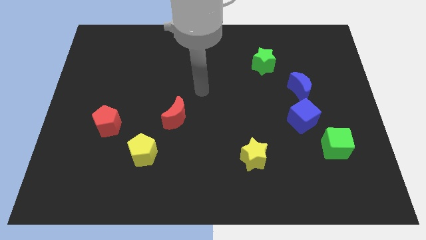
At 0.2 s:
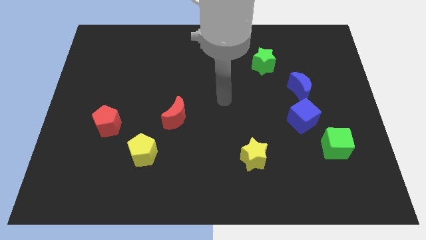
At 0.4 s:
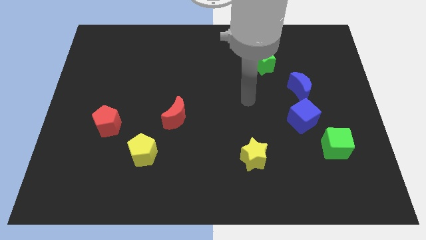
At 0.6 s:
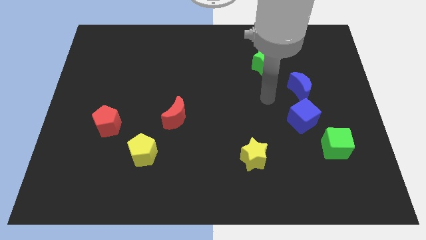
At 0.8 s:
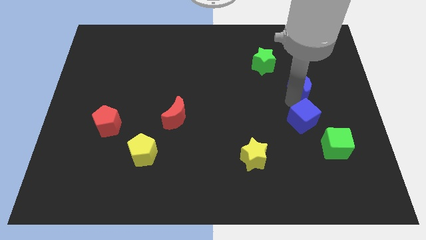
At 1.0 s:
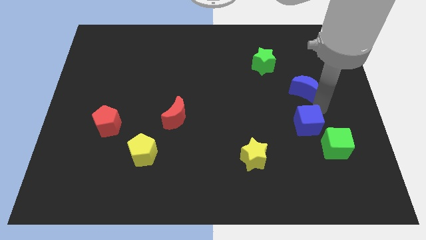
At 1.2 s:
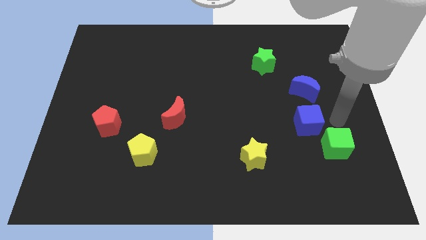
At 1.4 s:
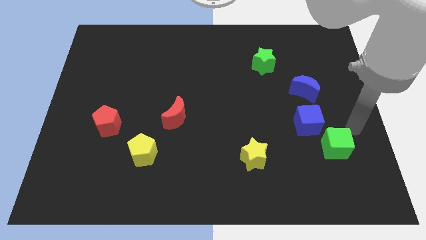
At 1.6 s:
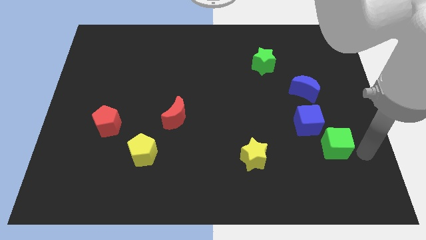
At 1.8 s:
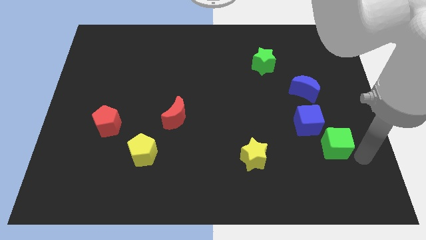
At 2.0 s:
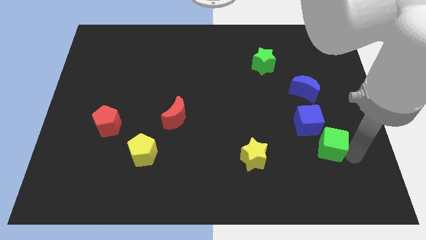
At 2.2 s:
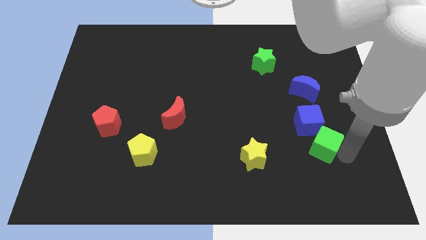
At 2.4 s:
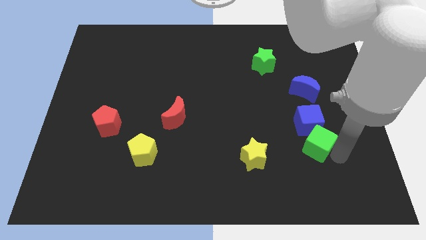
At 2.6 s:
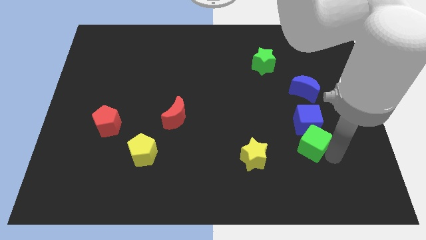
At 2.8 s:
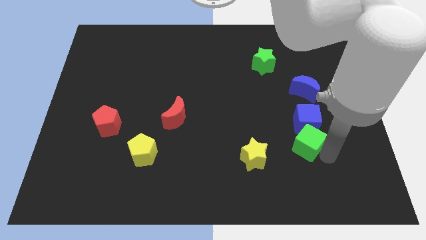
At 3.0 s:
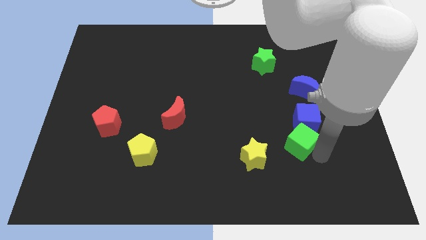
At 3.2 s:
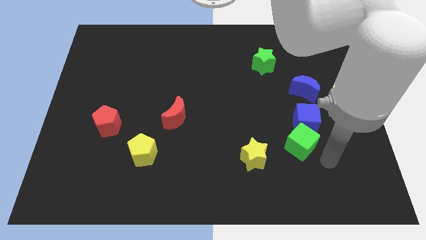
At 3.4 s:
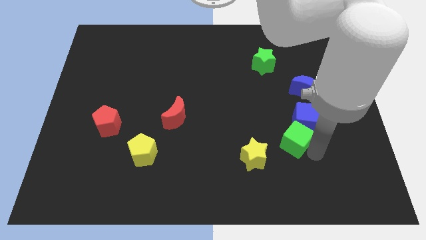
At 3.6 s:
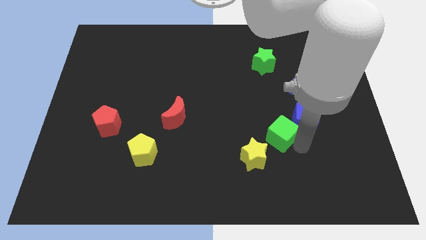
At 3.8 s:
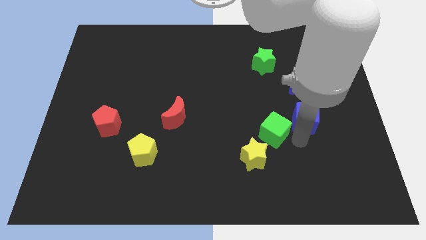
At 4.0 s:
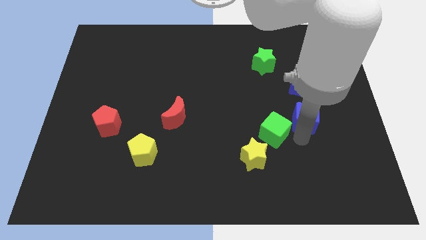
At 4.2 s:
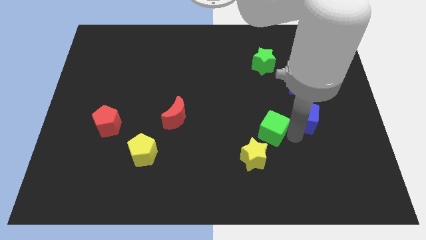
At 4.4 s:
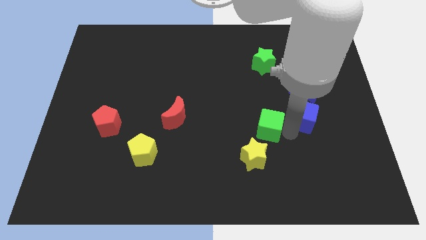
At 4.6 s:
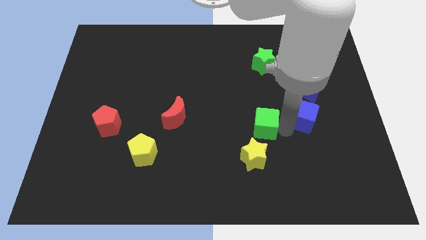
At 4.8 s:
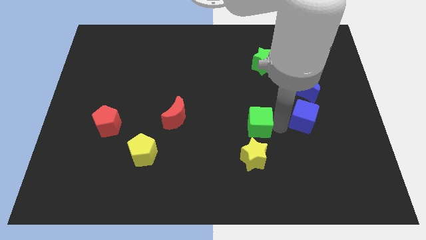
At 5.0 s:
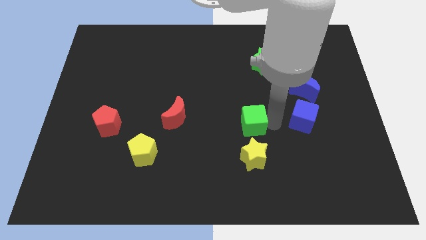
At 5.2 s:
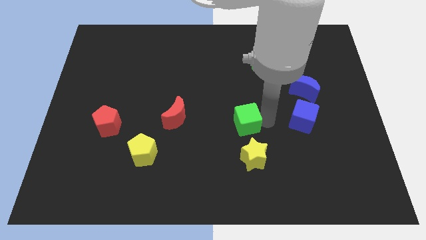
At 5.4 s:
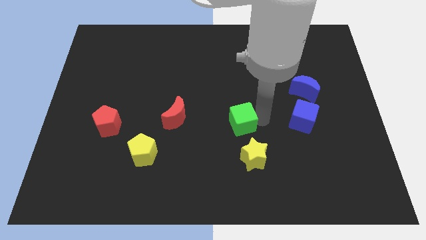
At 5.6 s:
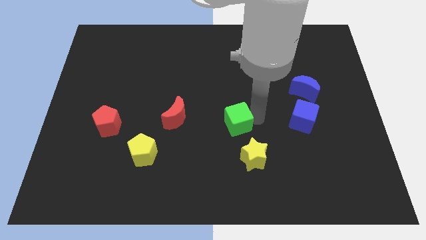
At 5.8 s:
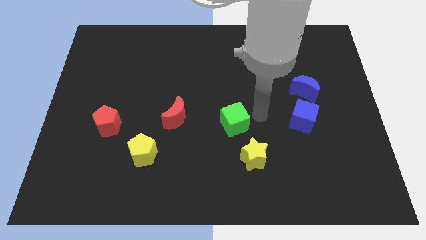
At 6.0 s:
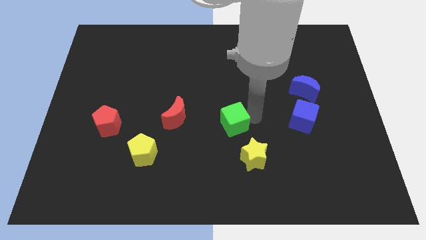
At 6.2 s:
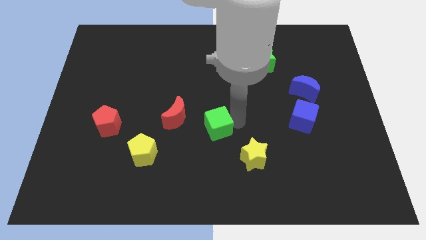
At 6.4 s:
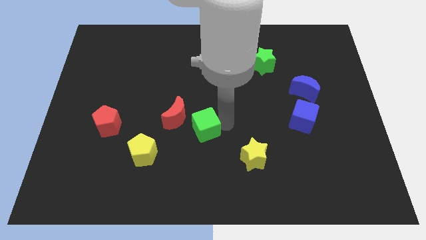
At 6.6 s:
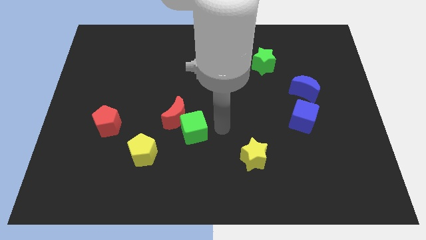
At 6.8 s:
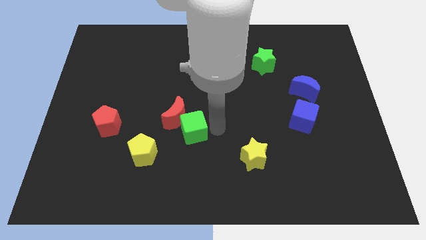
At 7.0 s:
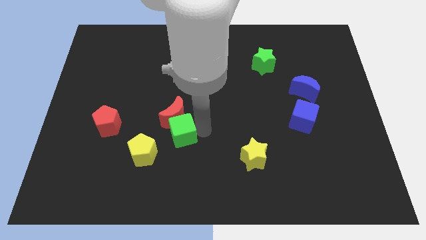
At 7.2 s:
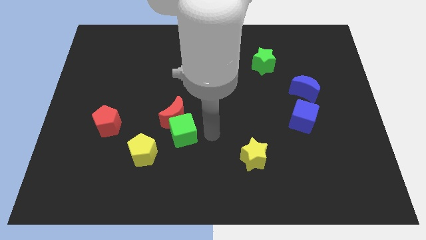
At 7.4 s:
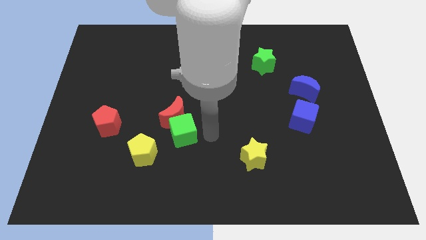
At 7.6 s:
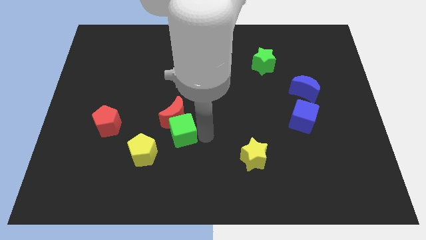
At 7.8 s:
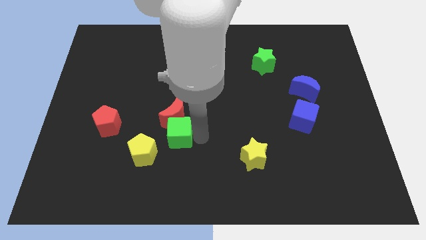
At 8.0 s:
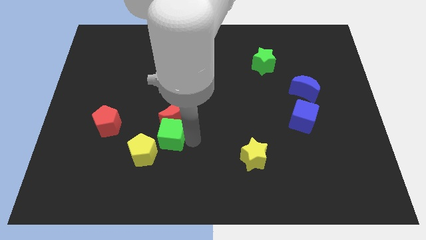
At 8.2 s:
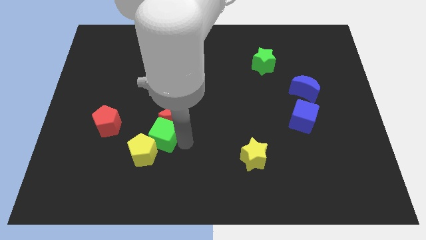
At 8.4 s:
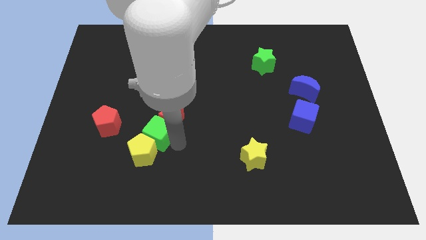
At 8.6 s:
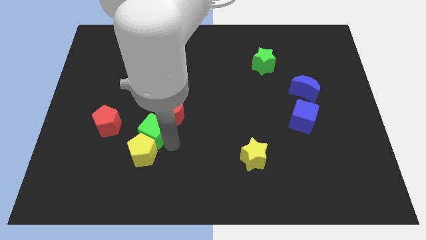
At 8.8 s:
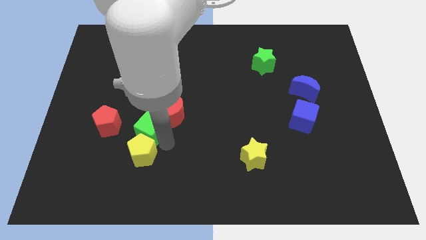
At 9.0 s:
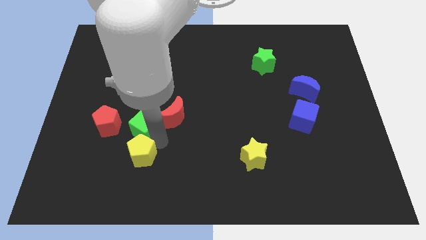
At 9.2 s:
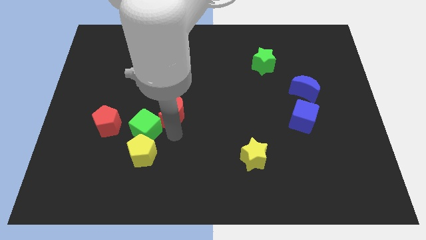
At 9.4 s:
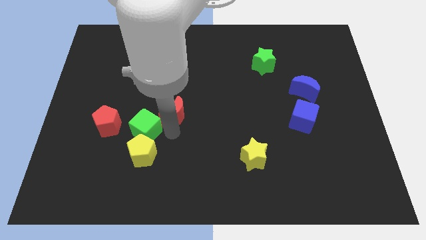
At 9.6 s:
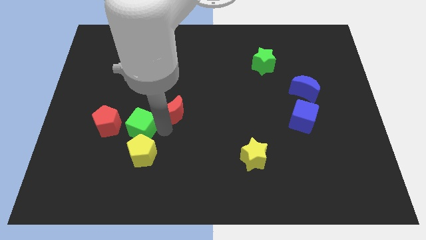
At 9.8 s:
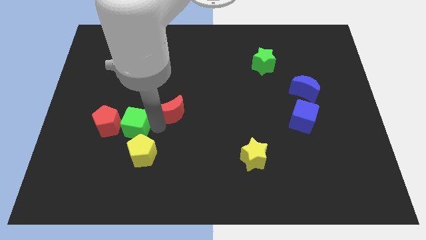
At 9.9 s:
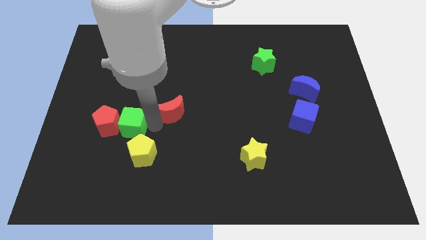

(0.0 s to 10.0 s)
slide the green cube to the red pentagon

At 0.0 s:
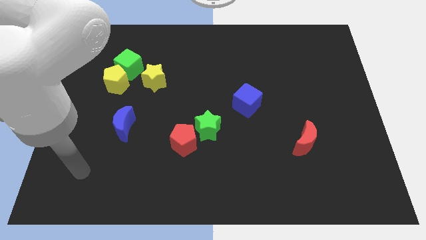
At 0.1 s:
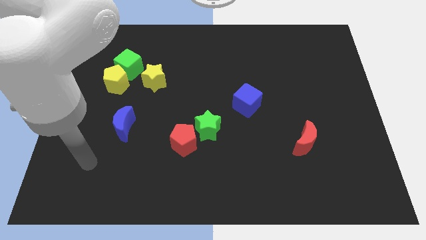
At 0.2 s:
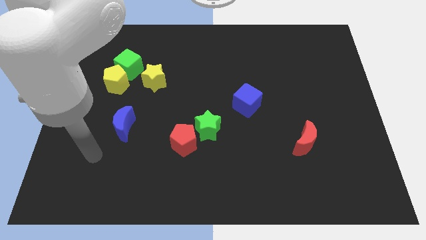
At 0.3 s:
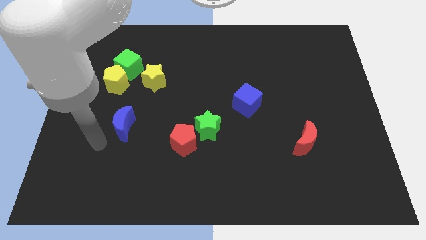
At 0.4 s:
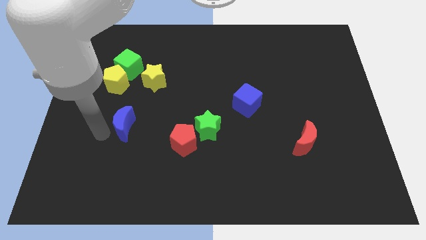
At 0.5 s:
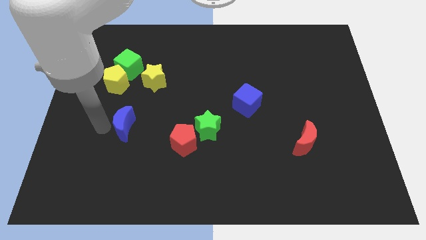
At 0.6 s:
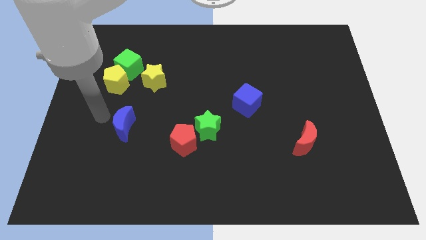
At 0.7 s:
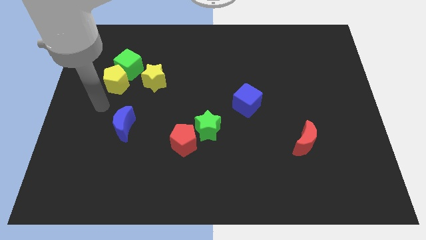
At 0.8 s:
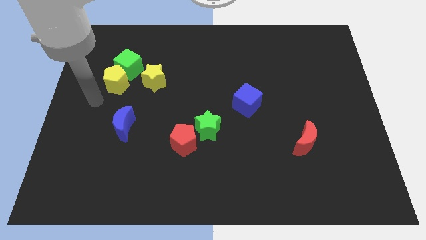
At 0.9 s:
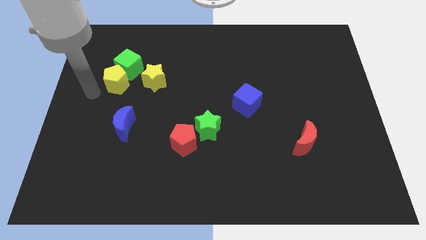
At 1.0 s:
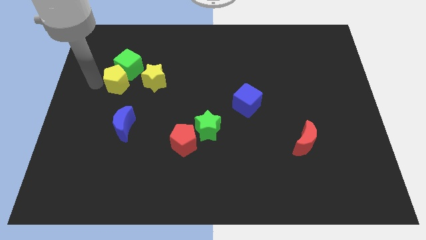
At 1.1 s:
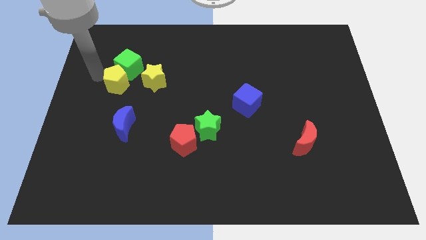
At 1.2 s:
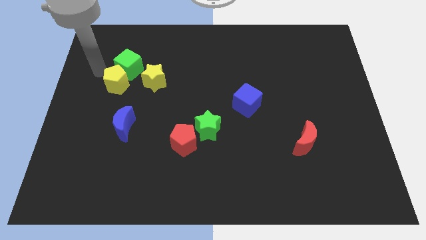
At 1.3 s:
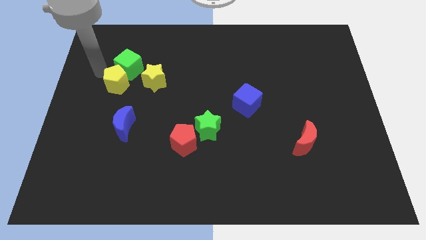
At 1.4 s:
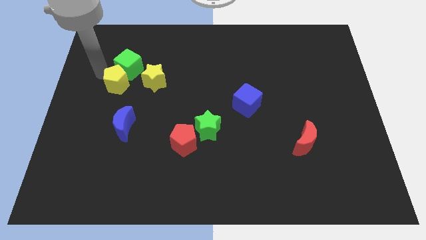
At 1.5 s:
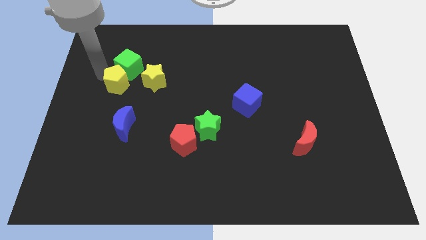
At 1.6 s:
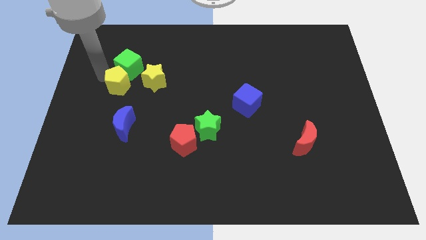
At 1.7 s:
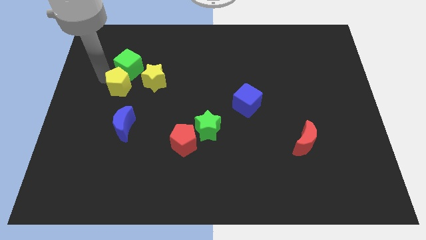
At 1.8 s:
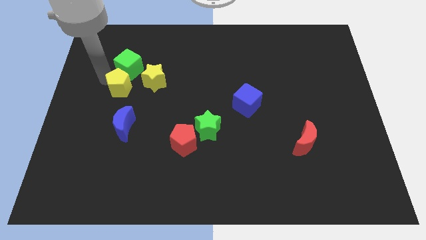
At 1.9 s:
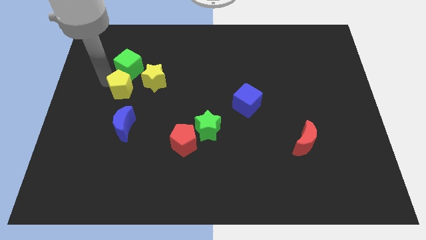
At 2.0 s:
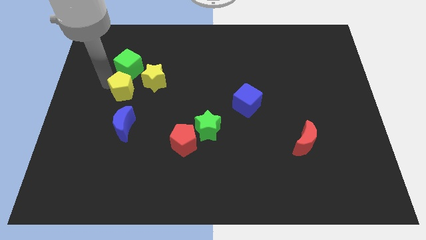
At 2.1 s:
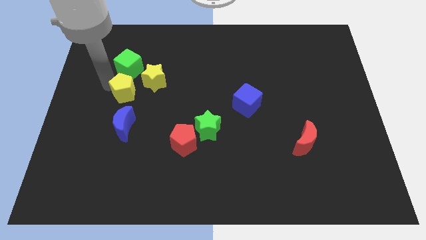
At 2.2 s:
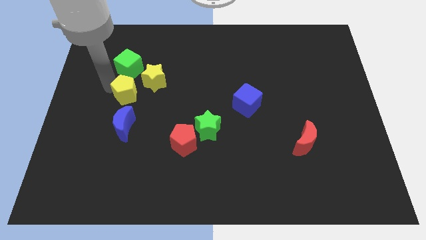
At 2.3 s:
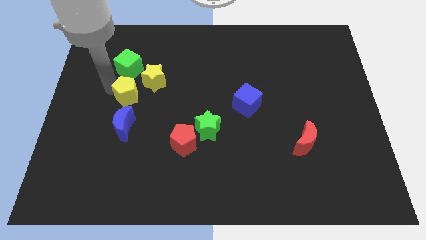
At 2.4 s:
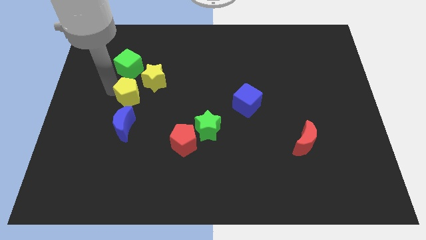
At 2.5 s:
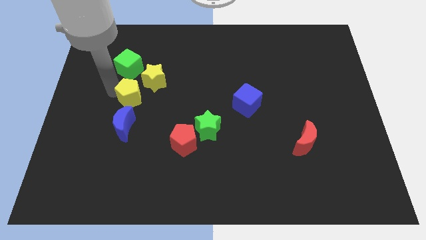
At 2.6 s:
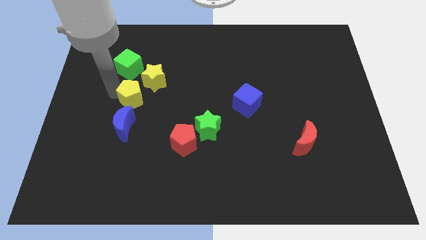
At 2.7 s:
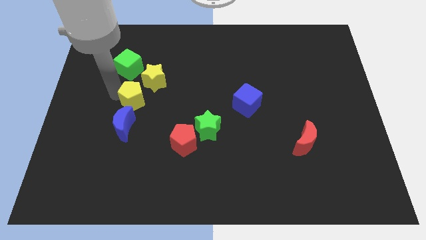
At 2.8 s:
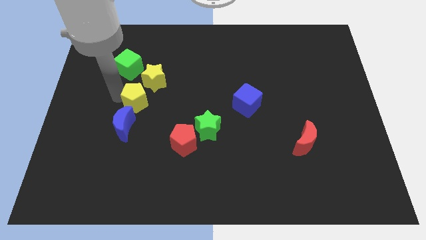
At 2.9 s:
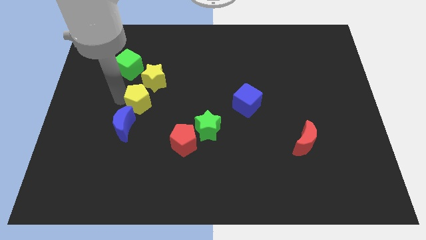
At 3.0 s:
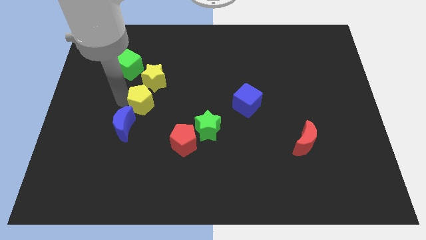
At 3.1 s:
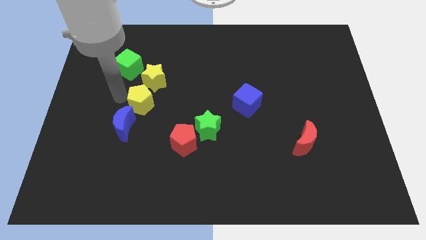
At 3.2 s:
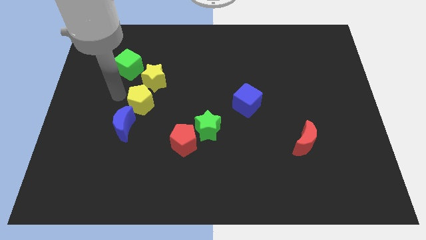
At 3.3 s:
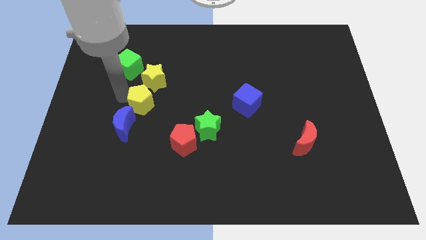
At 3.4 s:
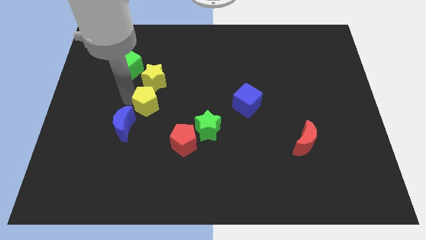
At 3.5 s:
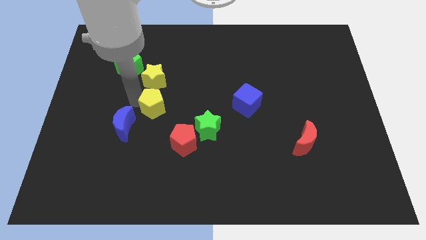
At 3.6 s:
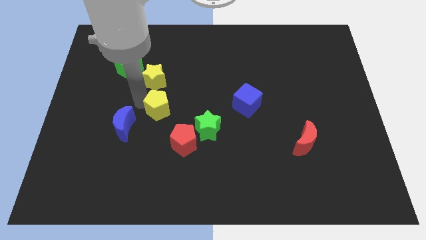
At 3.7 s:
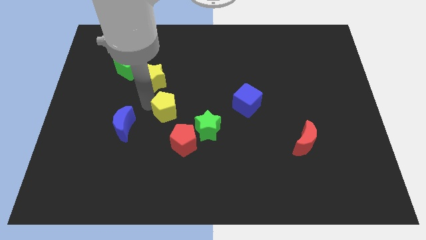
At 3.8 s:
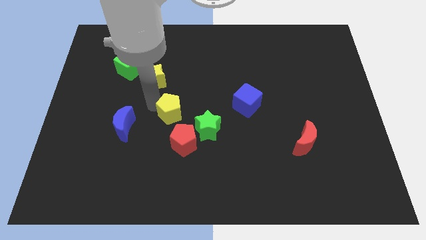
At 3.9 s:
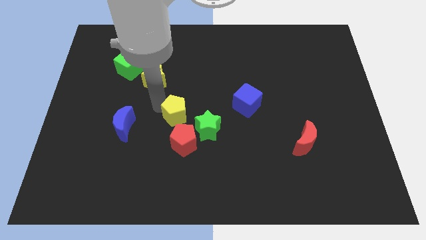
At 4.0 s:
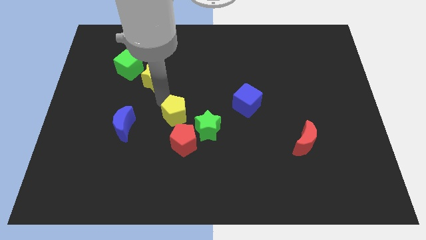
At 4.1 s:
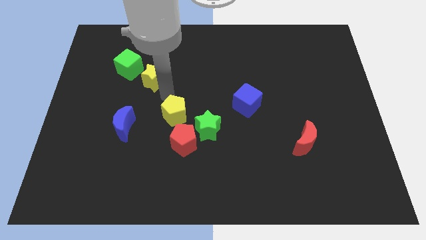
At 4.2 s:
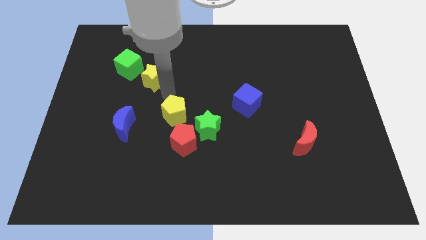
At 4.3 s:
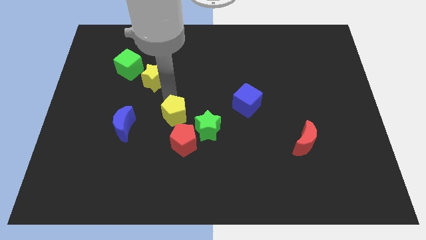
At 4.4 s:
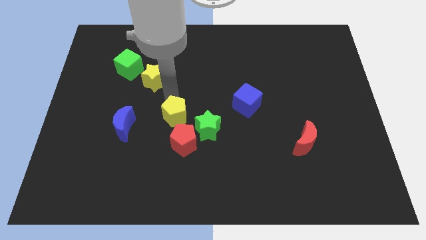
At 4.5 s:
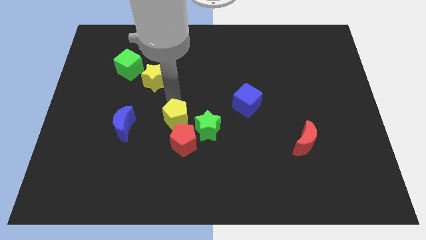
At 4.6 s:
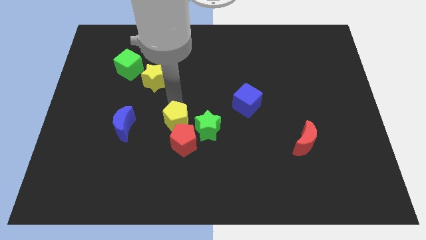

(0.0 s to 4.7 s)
push the yellow pentagon close to the red pentagon
